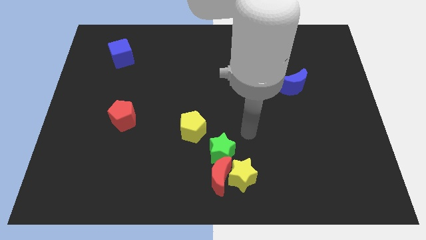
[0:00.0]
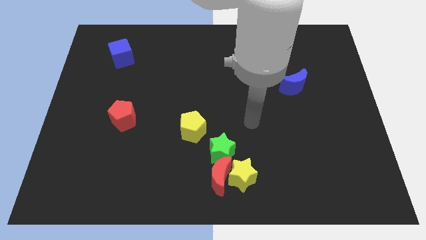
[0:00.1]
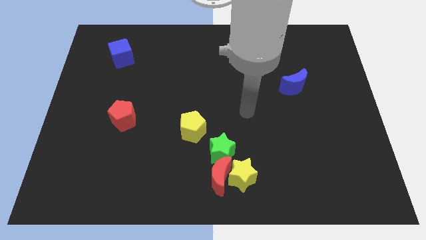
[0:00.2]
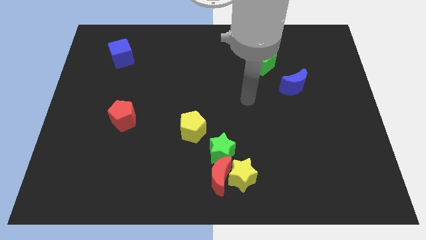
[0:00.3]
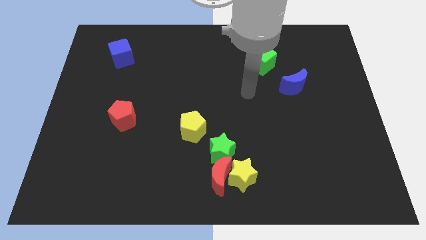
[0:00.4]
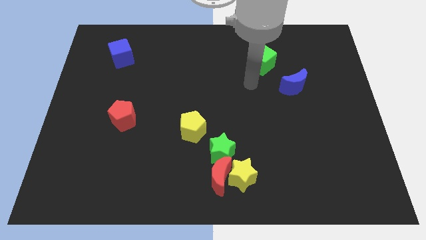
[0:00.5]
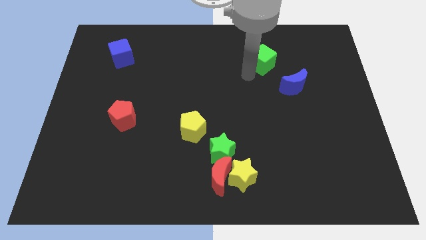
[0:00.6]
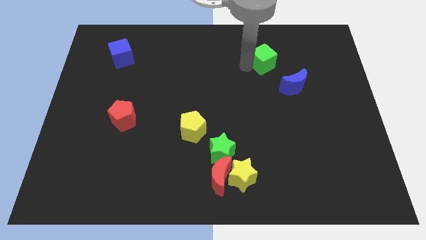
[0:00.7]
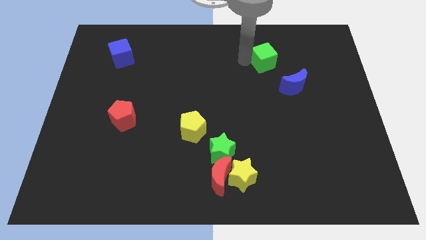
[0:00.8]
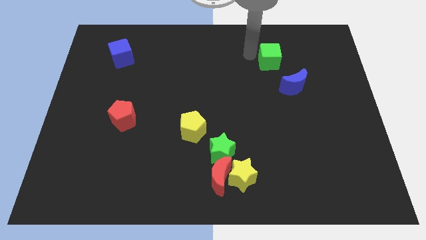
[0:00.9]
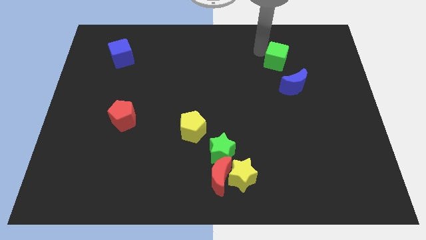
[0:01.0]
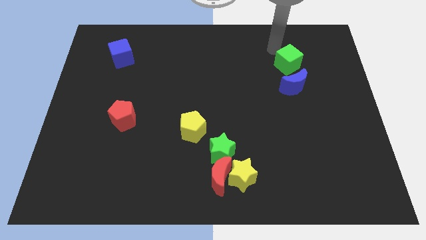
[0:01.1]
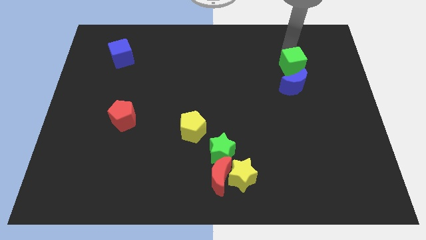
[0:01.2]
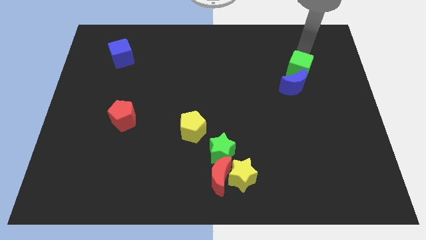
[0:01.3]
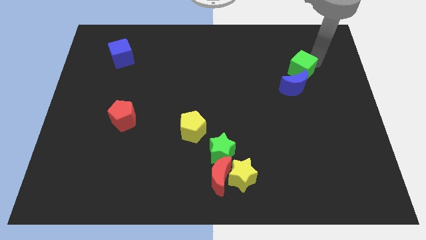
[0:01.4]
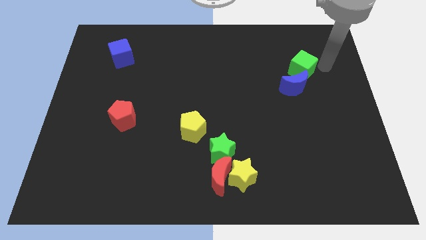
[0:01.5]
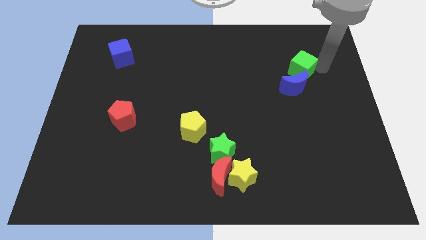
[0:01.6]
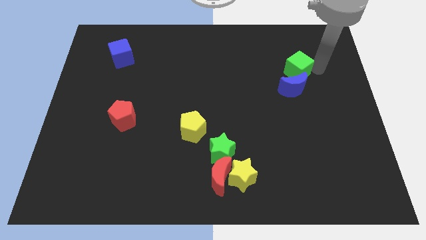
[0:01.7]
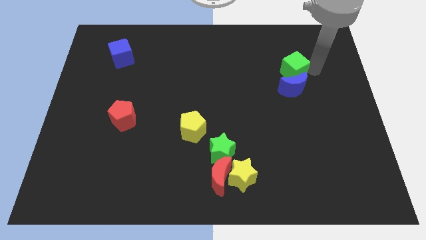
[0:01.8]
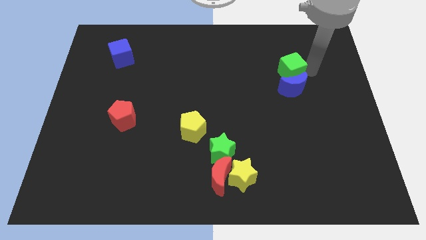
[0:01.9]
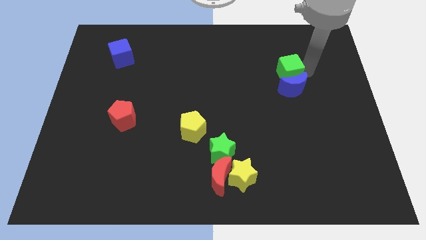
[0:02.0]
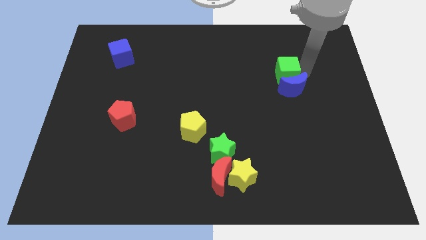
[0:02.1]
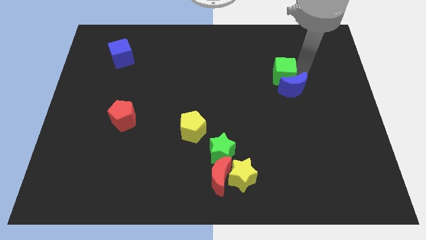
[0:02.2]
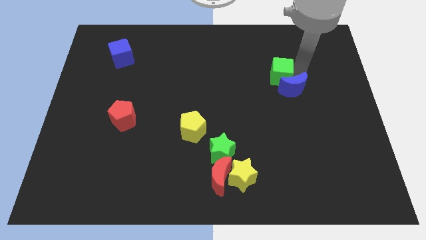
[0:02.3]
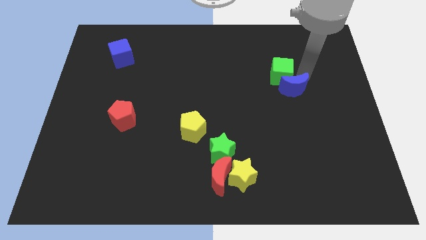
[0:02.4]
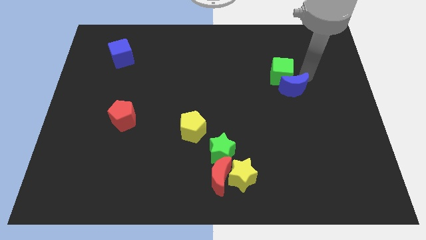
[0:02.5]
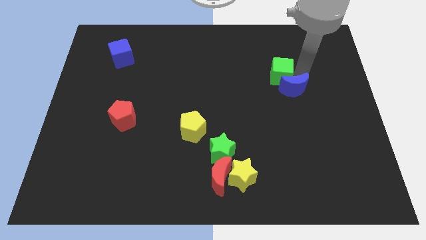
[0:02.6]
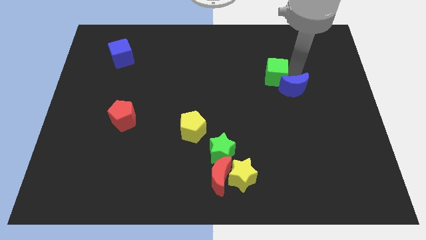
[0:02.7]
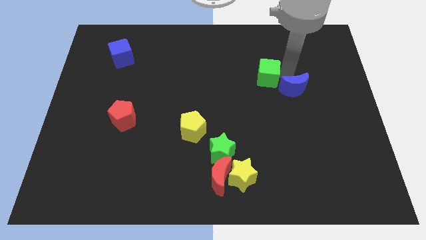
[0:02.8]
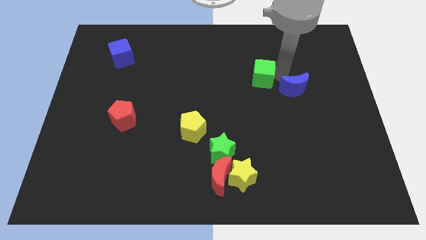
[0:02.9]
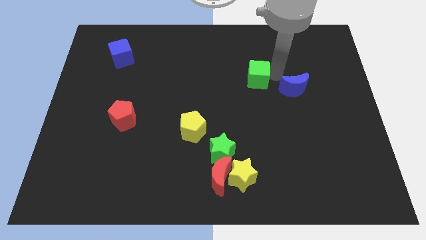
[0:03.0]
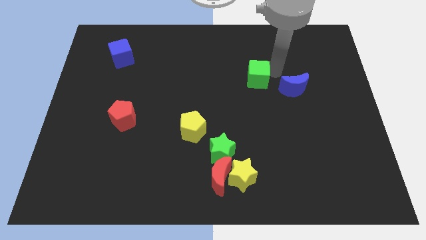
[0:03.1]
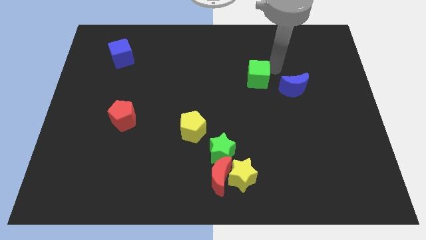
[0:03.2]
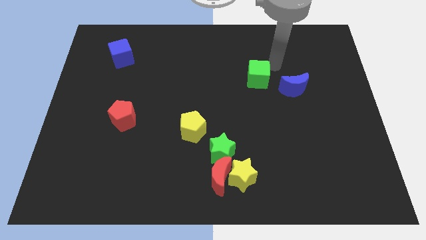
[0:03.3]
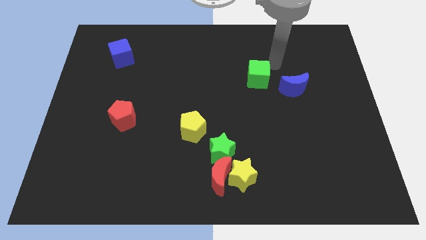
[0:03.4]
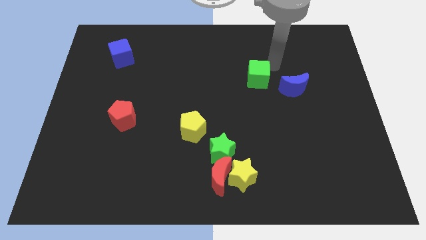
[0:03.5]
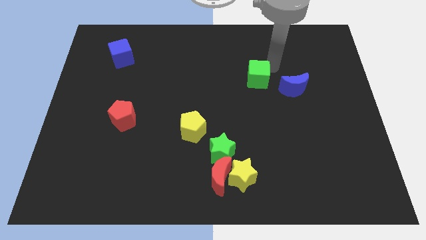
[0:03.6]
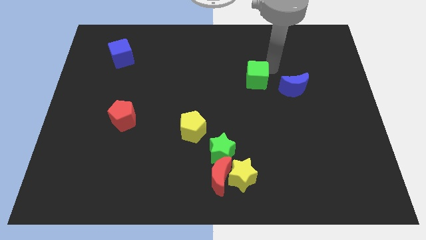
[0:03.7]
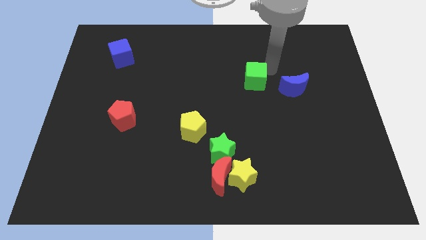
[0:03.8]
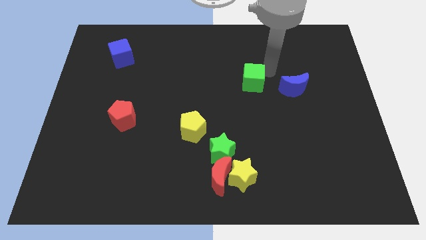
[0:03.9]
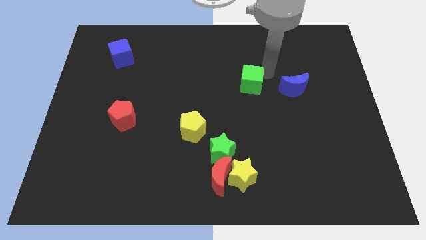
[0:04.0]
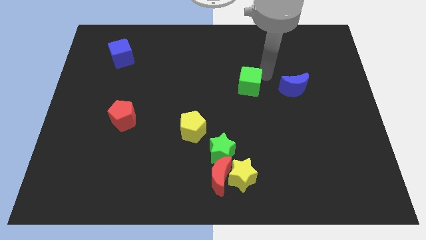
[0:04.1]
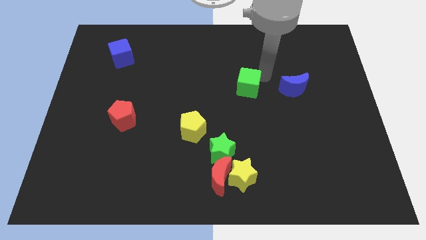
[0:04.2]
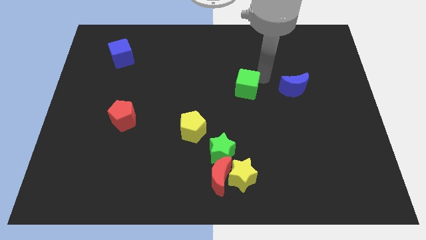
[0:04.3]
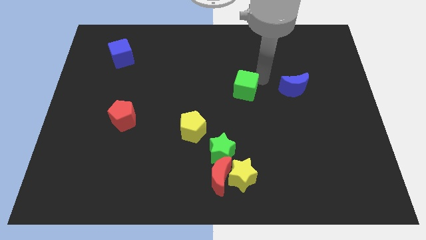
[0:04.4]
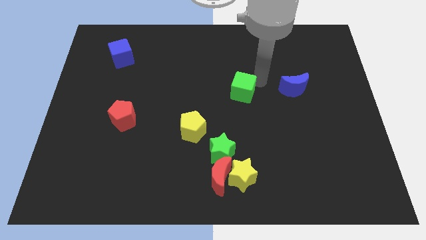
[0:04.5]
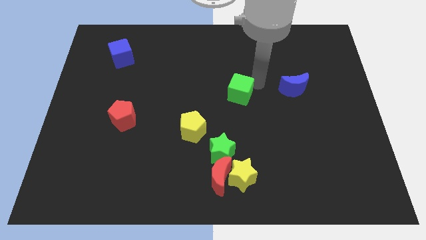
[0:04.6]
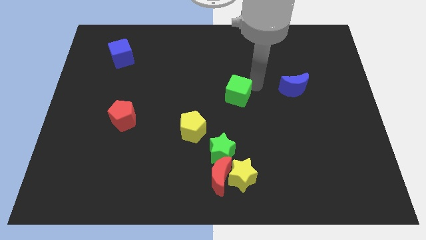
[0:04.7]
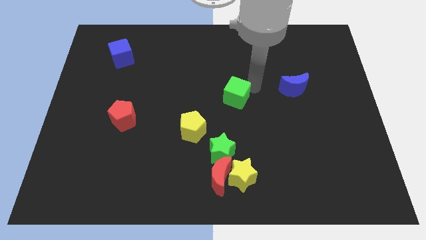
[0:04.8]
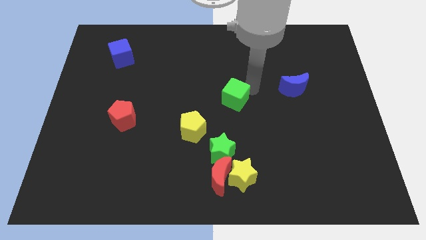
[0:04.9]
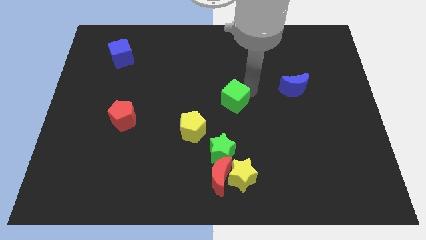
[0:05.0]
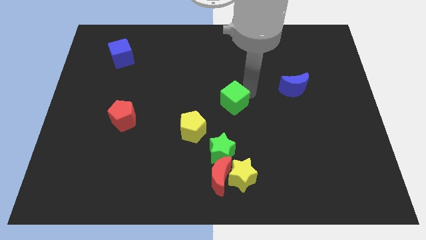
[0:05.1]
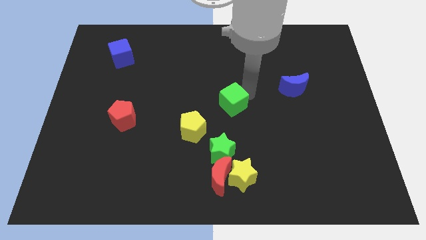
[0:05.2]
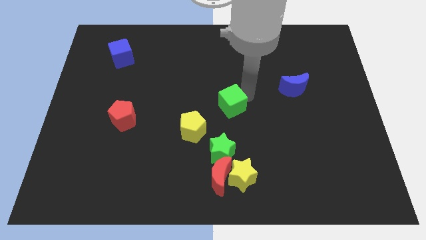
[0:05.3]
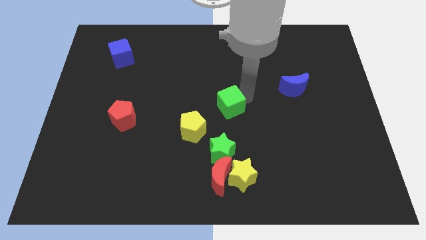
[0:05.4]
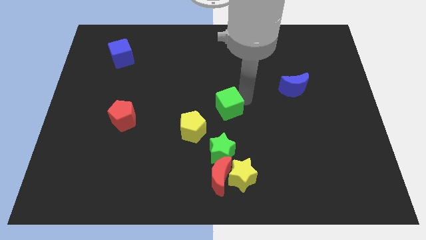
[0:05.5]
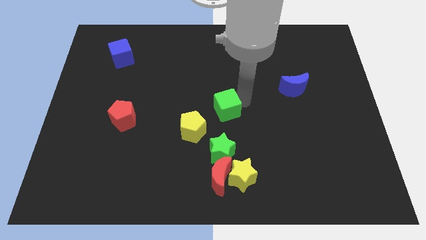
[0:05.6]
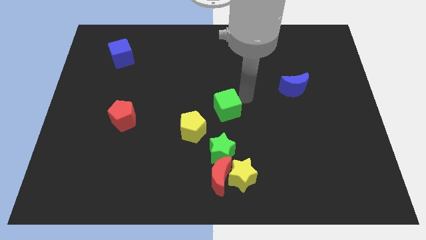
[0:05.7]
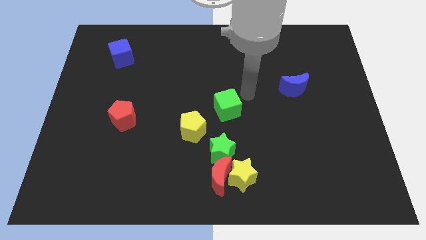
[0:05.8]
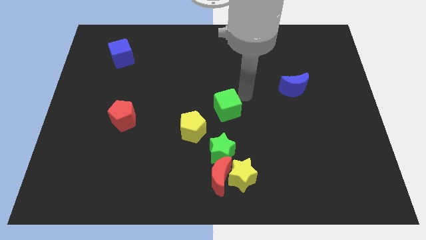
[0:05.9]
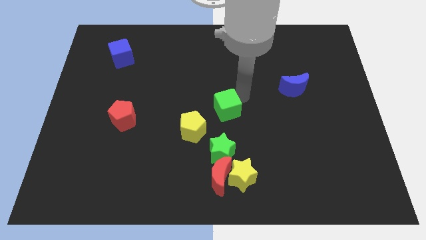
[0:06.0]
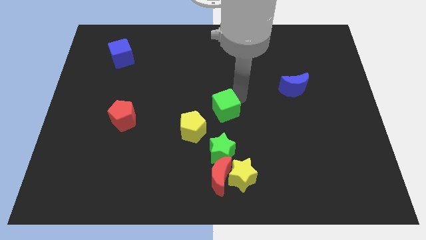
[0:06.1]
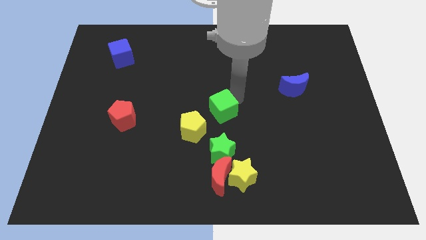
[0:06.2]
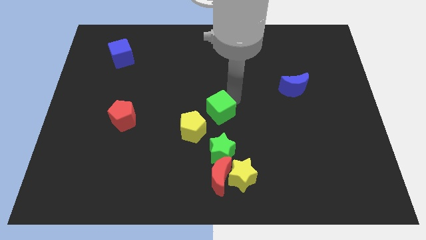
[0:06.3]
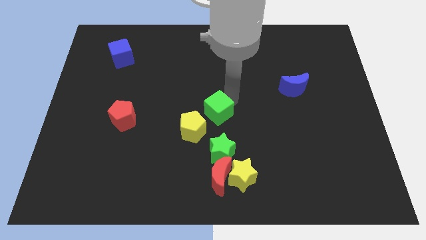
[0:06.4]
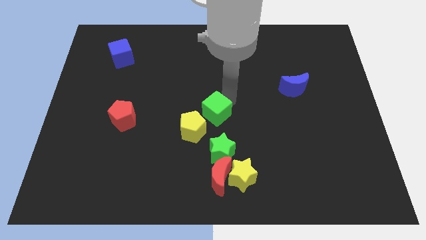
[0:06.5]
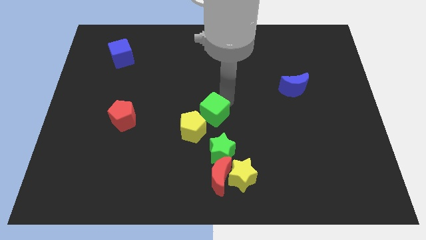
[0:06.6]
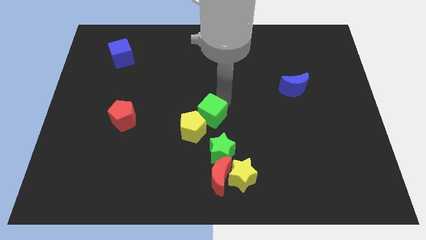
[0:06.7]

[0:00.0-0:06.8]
slide the green cube to the yellow pentagon

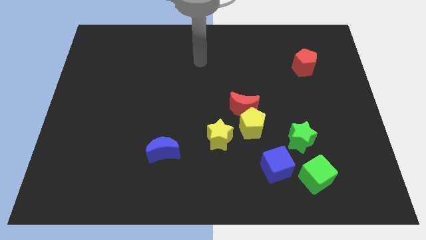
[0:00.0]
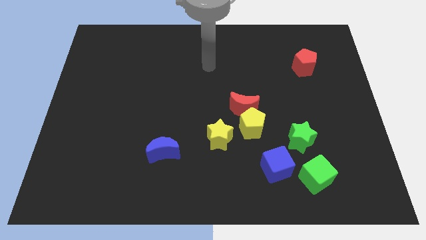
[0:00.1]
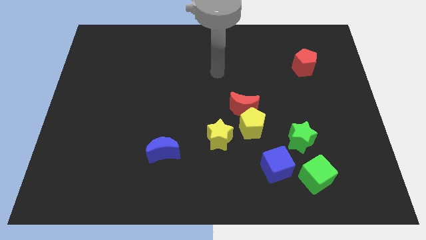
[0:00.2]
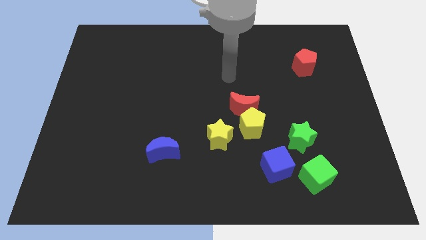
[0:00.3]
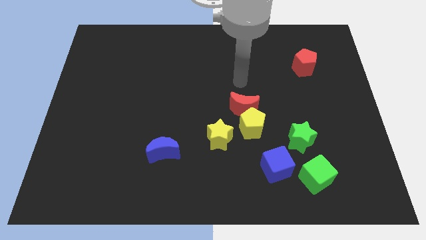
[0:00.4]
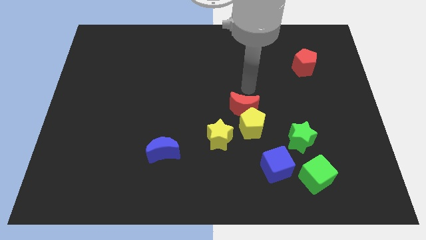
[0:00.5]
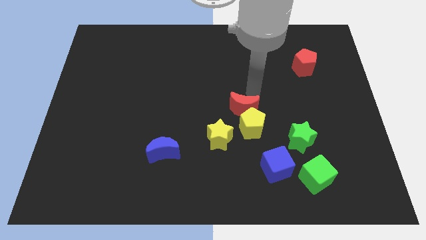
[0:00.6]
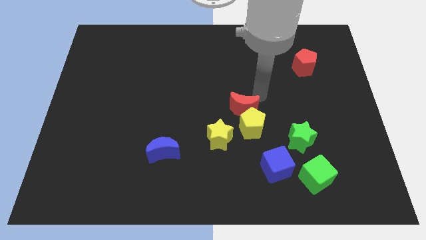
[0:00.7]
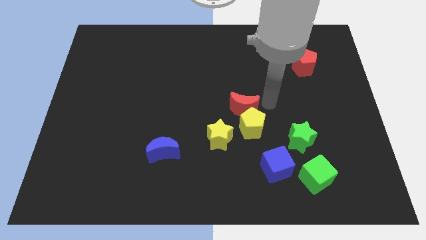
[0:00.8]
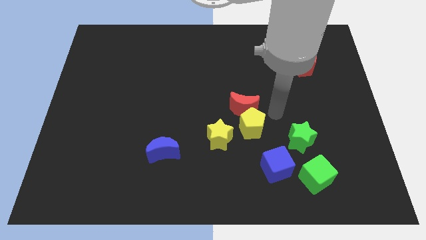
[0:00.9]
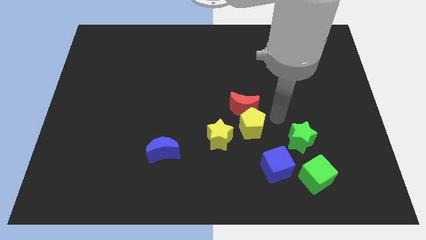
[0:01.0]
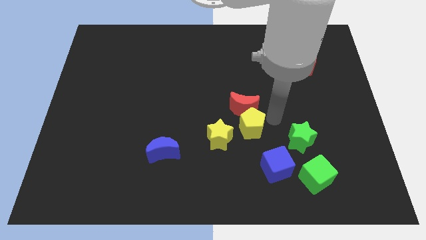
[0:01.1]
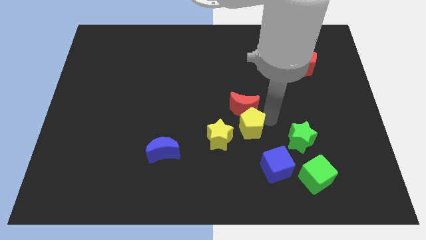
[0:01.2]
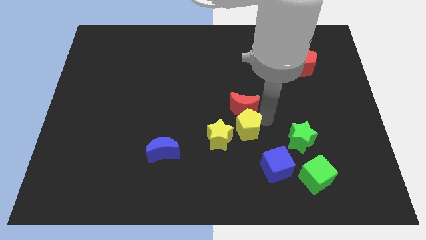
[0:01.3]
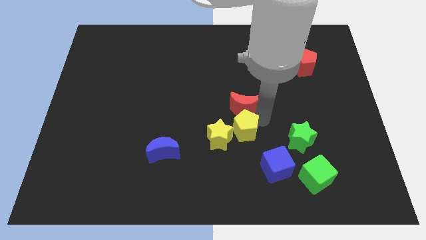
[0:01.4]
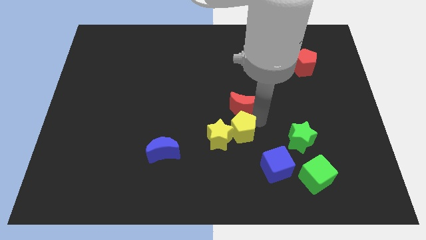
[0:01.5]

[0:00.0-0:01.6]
push the yellow pentagon next to the yellow star
